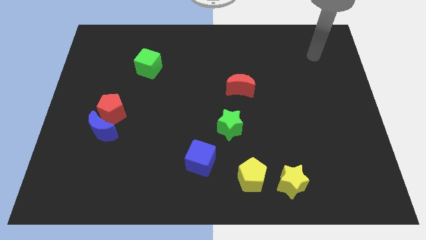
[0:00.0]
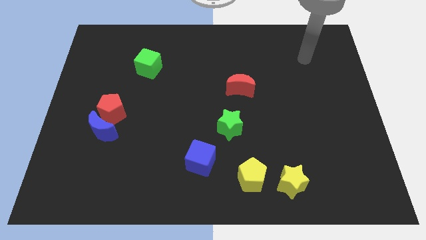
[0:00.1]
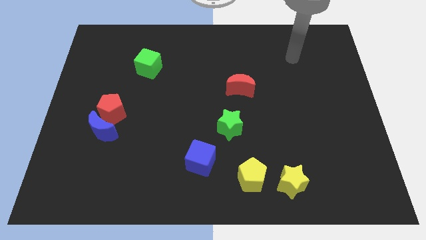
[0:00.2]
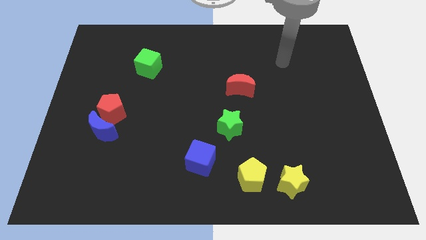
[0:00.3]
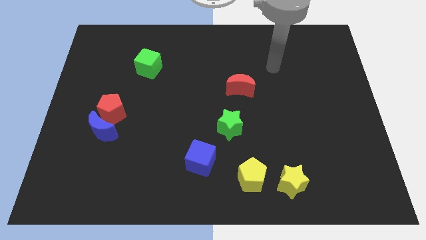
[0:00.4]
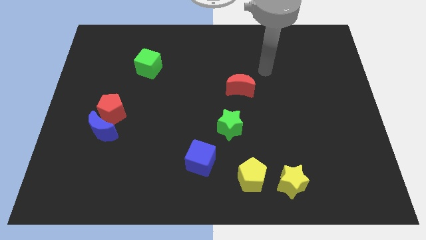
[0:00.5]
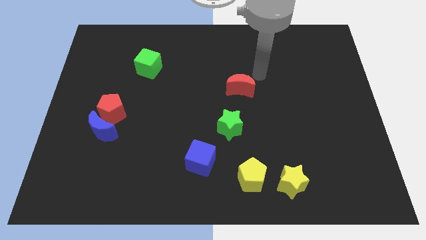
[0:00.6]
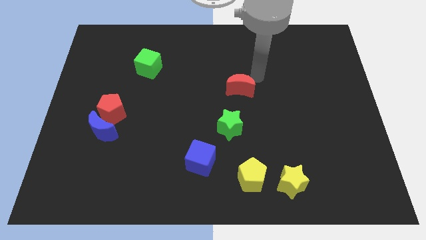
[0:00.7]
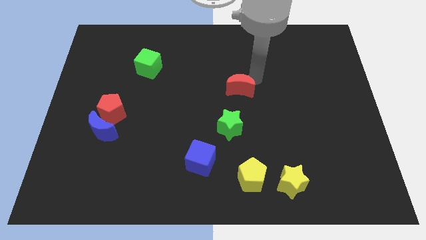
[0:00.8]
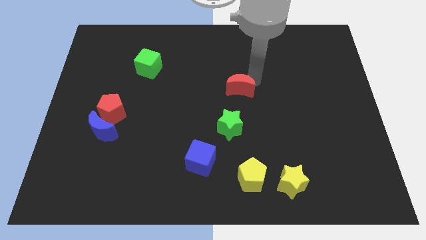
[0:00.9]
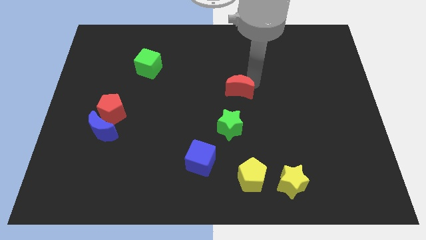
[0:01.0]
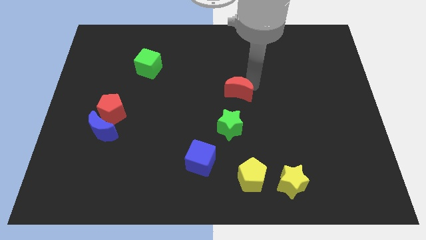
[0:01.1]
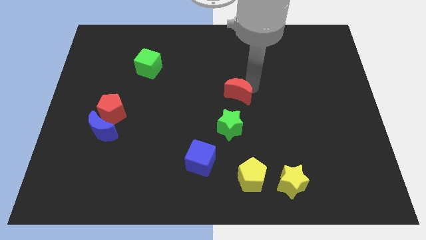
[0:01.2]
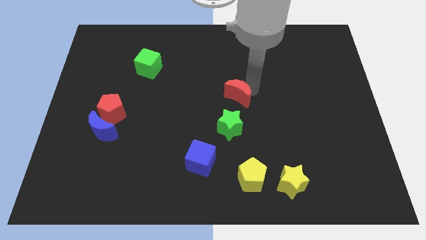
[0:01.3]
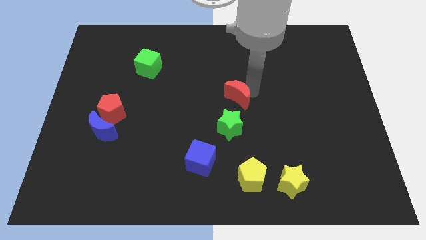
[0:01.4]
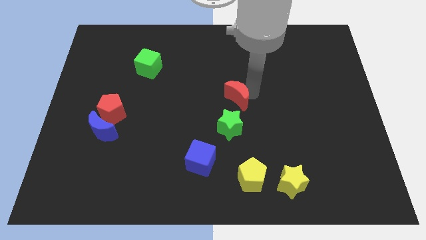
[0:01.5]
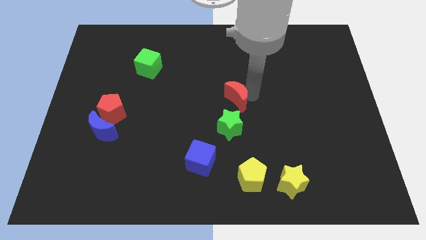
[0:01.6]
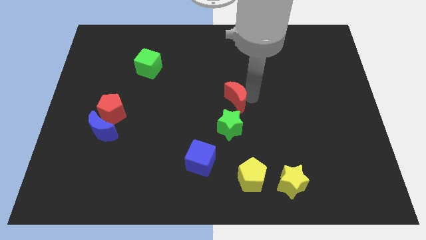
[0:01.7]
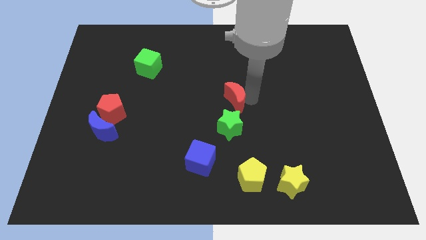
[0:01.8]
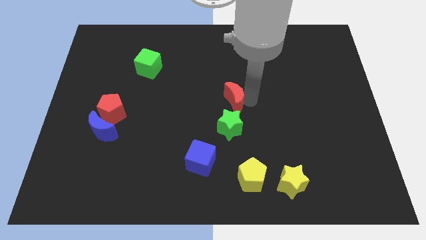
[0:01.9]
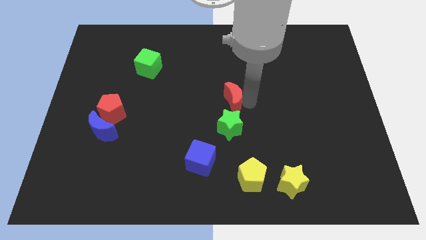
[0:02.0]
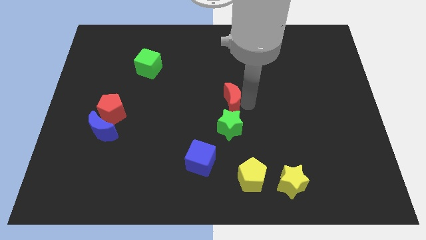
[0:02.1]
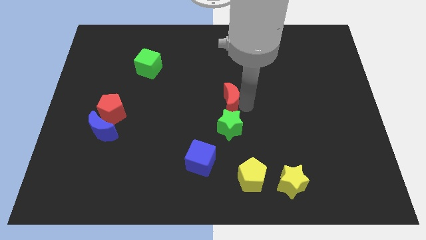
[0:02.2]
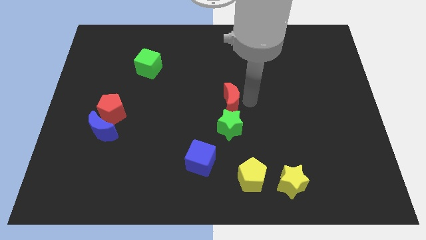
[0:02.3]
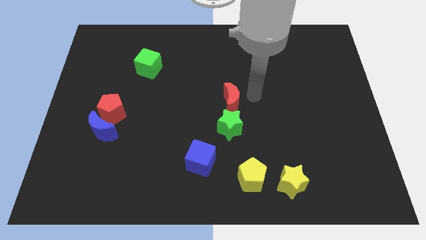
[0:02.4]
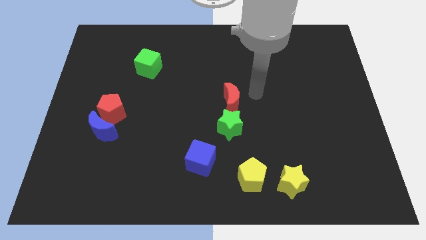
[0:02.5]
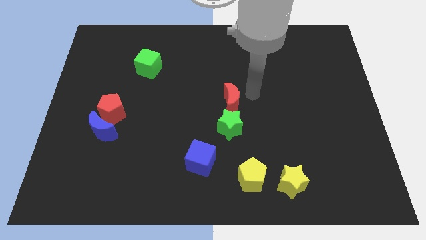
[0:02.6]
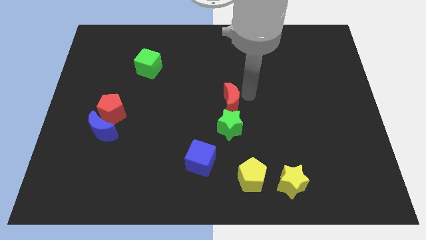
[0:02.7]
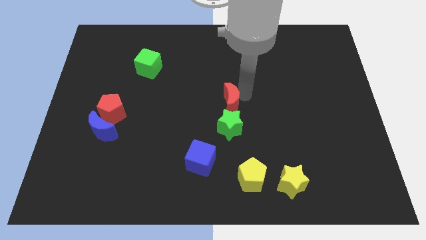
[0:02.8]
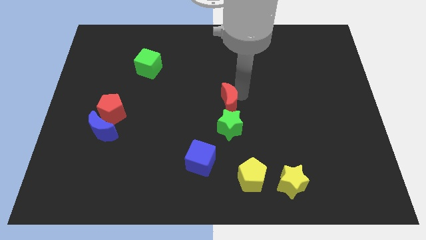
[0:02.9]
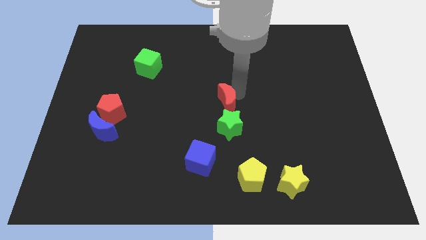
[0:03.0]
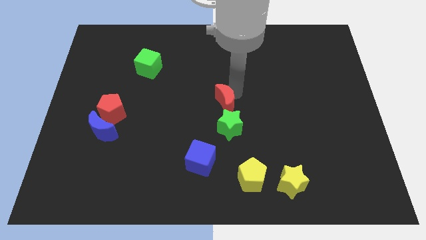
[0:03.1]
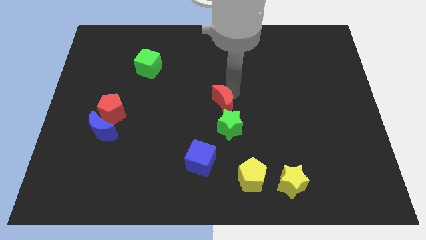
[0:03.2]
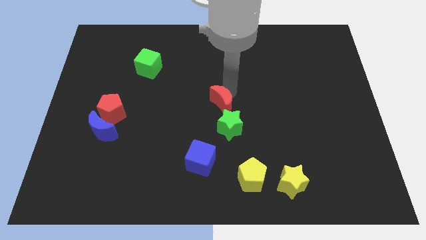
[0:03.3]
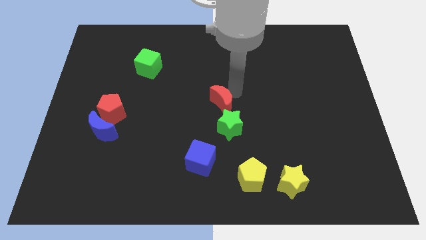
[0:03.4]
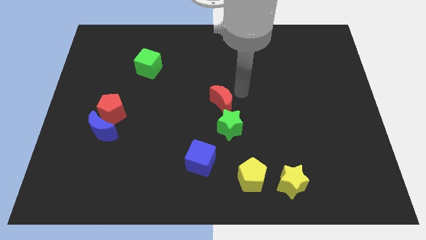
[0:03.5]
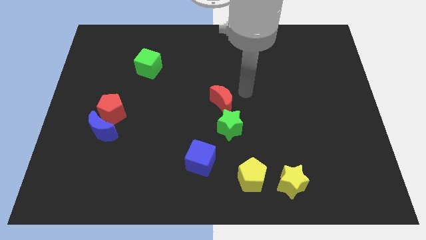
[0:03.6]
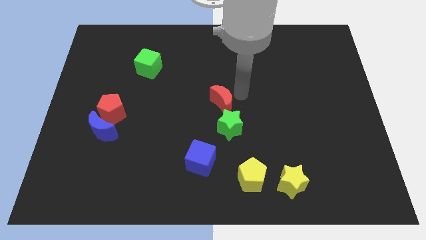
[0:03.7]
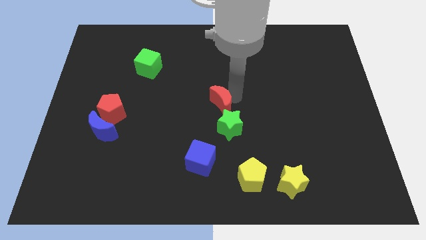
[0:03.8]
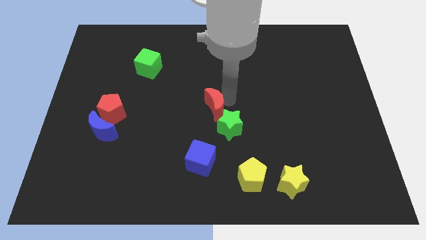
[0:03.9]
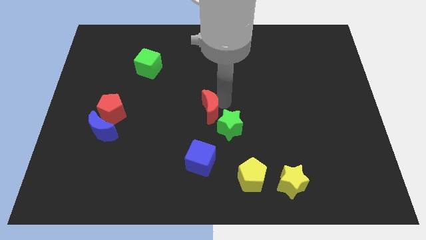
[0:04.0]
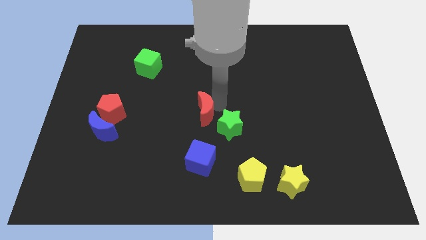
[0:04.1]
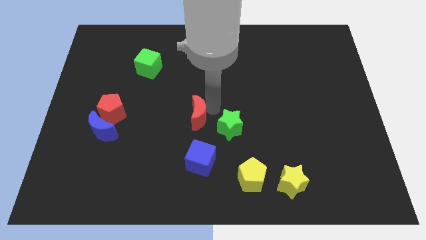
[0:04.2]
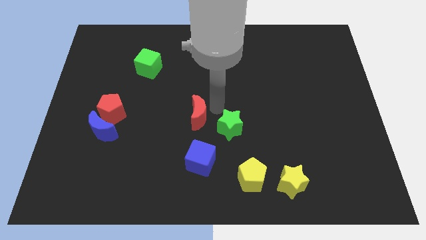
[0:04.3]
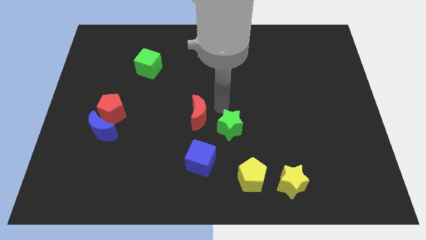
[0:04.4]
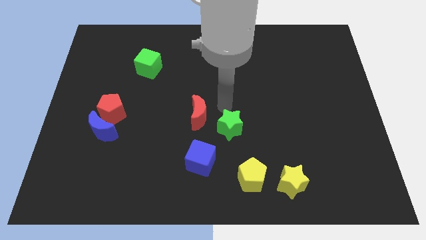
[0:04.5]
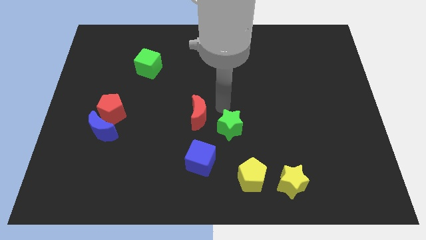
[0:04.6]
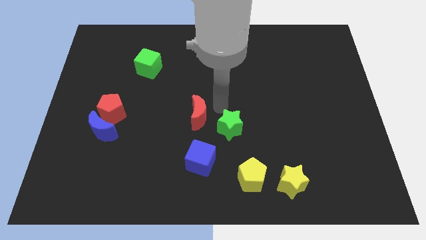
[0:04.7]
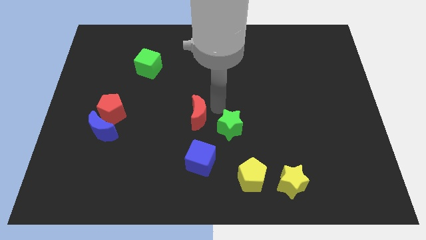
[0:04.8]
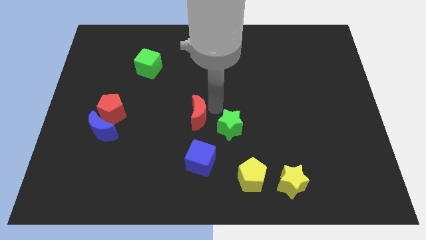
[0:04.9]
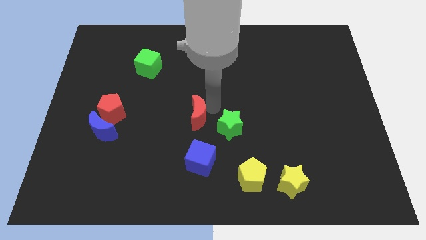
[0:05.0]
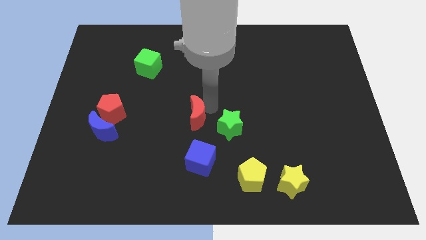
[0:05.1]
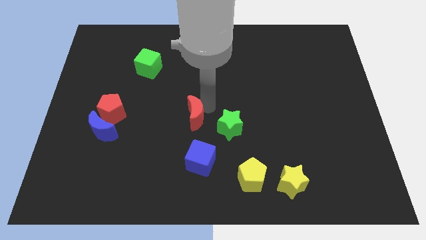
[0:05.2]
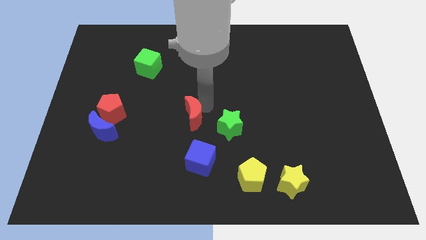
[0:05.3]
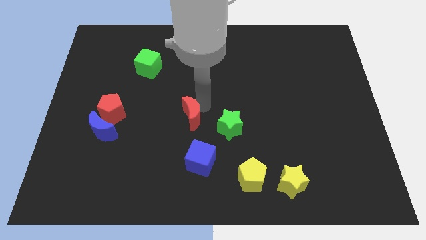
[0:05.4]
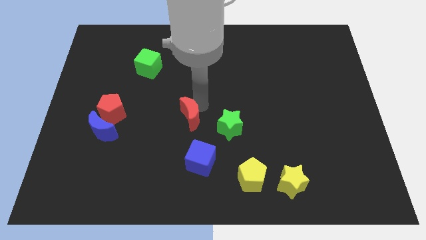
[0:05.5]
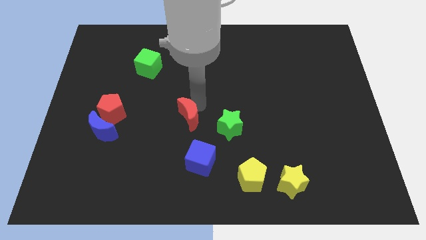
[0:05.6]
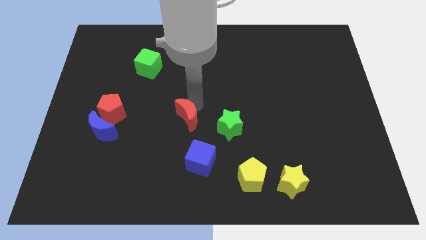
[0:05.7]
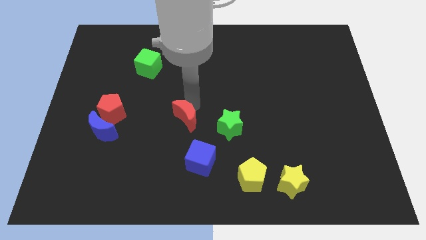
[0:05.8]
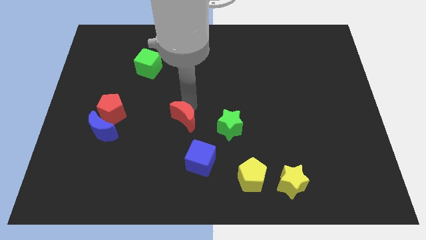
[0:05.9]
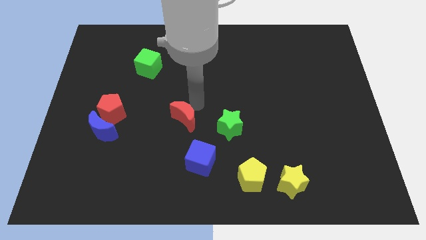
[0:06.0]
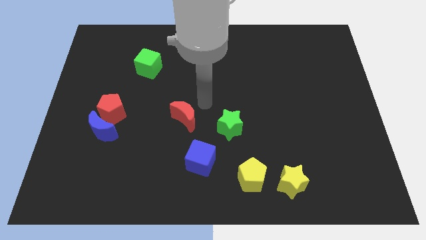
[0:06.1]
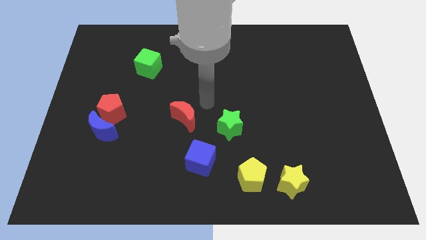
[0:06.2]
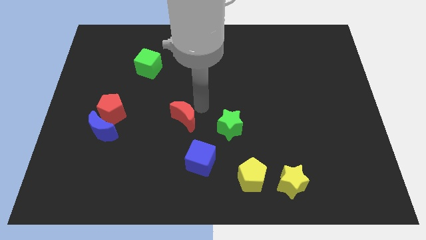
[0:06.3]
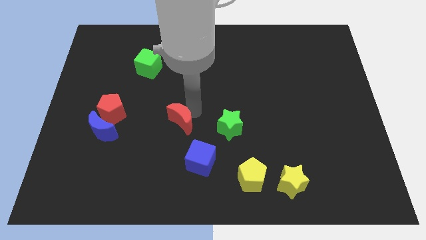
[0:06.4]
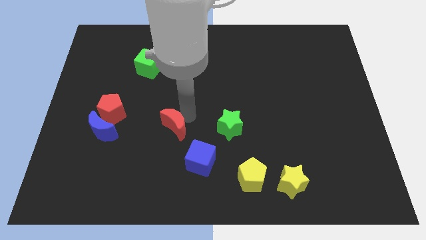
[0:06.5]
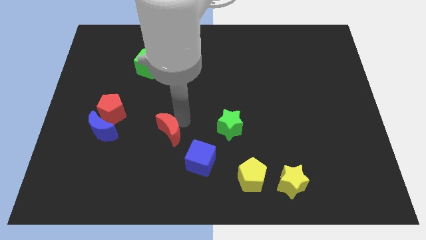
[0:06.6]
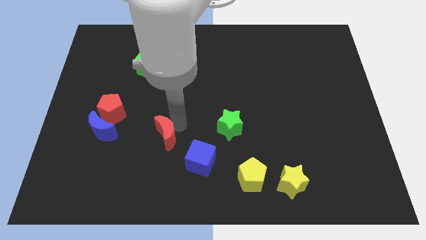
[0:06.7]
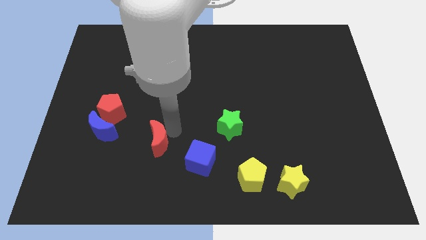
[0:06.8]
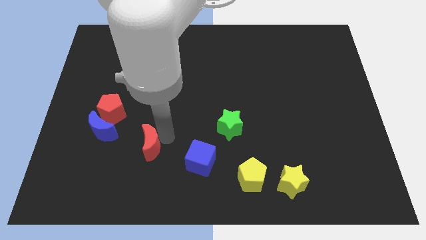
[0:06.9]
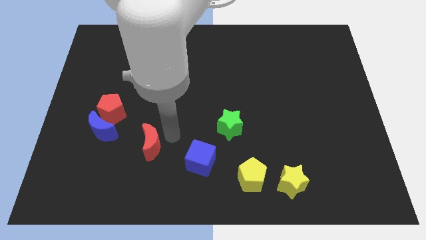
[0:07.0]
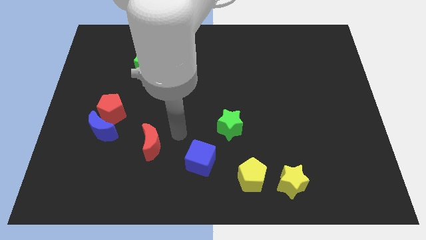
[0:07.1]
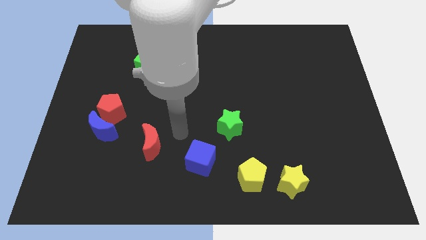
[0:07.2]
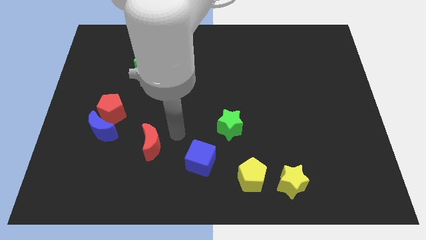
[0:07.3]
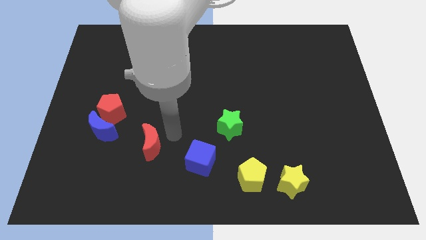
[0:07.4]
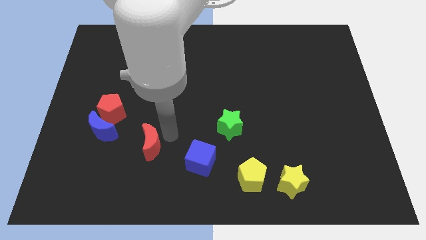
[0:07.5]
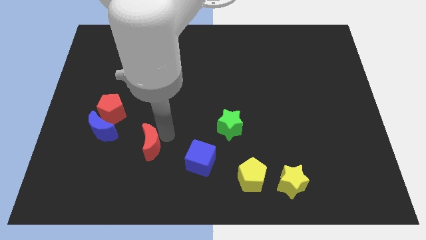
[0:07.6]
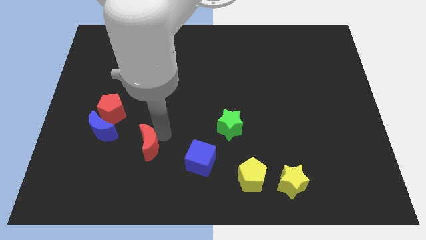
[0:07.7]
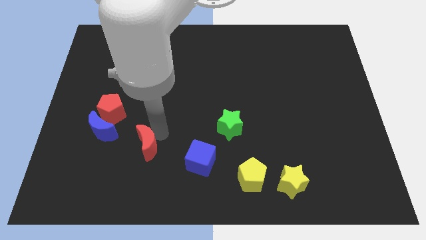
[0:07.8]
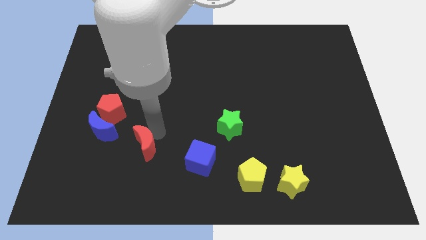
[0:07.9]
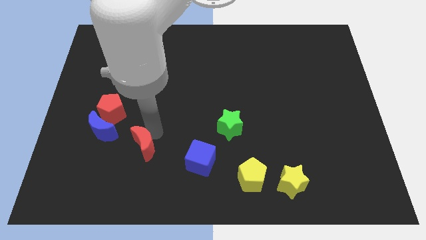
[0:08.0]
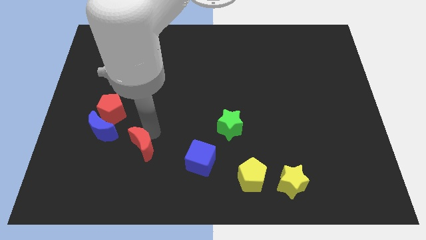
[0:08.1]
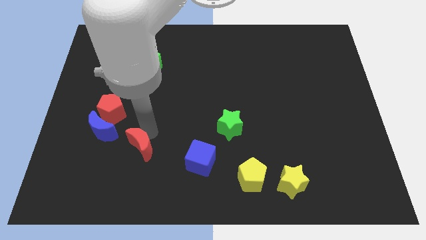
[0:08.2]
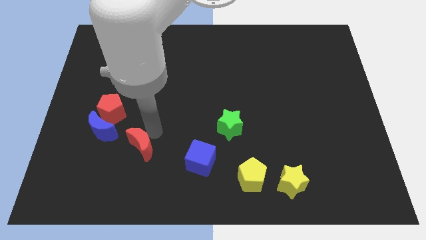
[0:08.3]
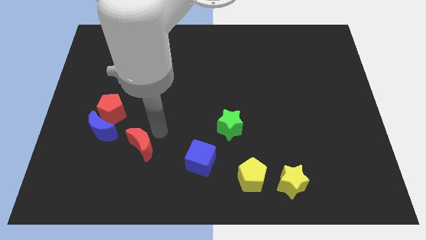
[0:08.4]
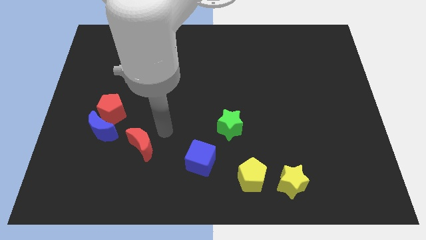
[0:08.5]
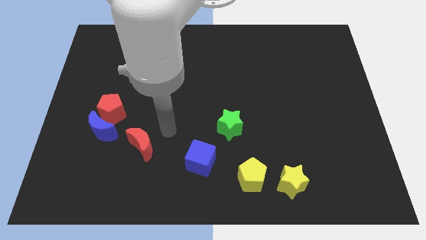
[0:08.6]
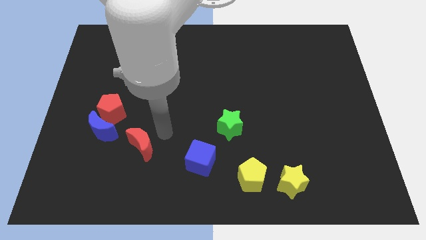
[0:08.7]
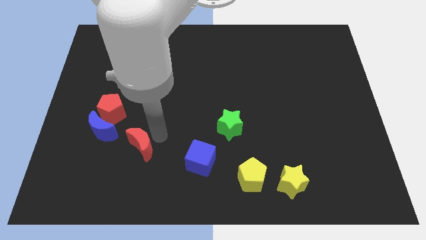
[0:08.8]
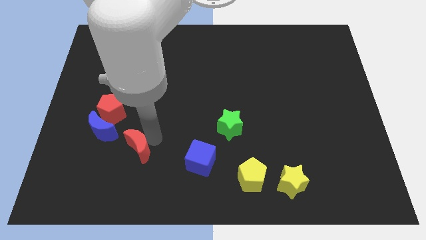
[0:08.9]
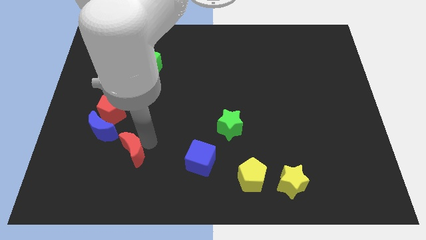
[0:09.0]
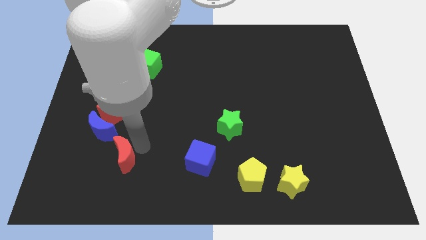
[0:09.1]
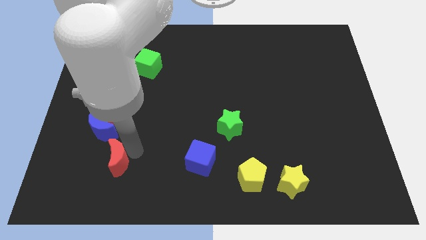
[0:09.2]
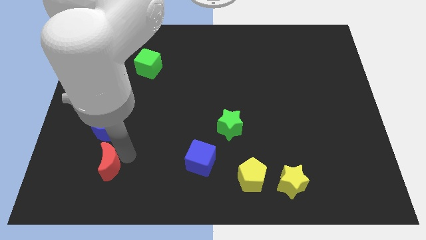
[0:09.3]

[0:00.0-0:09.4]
slide the red moon below the blue moon
